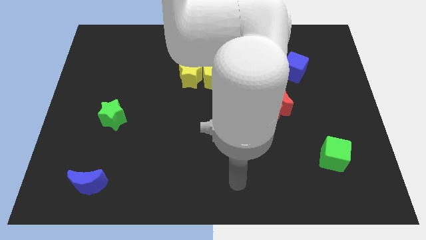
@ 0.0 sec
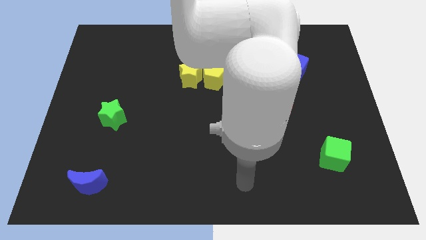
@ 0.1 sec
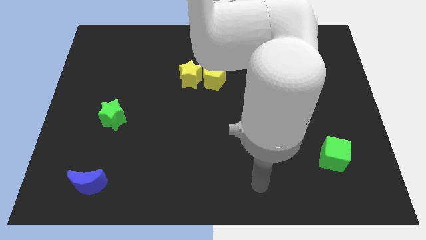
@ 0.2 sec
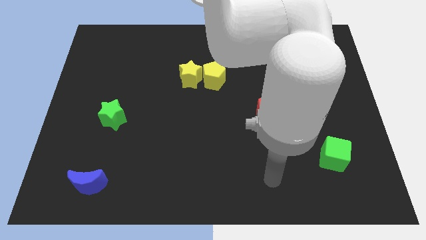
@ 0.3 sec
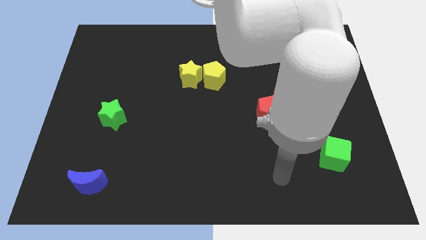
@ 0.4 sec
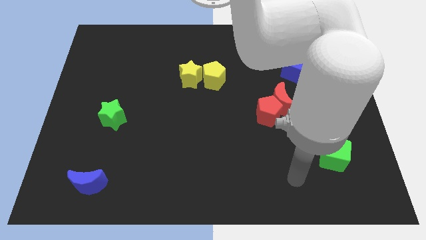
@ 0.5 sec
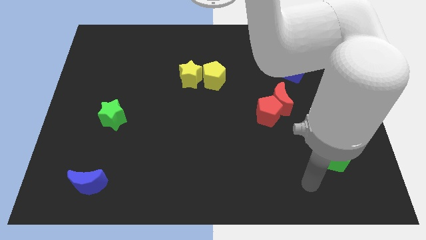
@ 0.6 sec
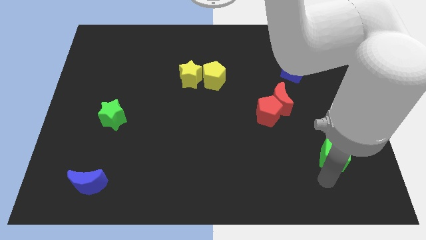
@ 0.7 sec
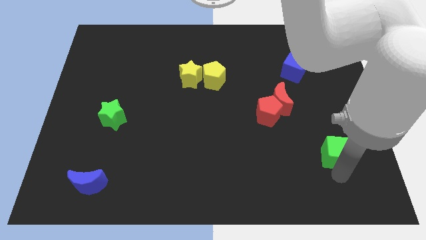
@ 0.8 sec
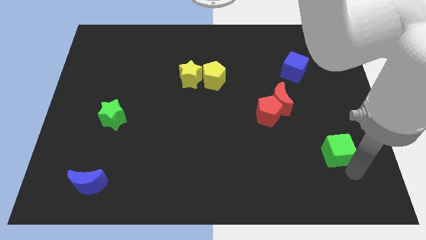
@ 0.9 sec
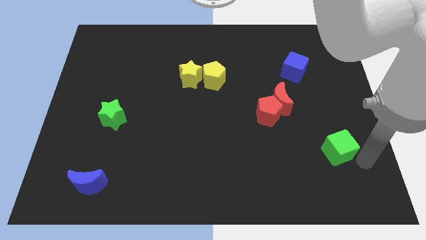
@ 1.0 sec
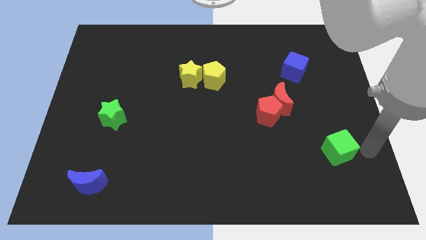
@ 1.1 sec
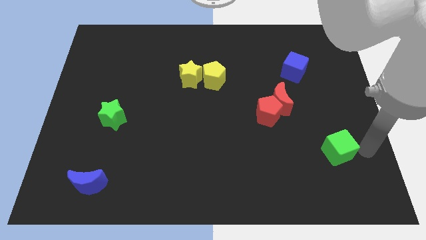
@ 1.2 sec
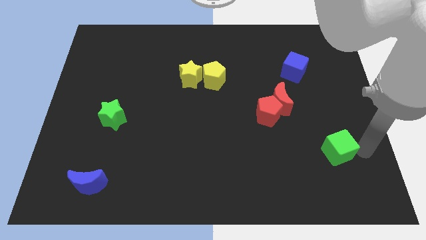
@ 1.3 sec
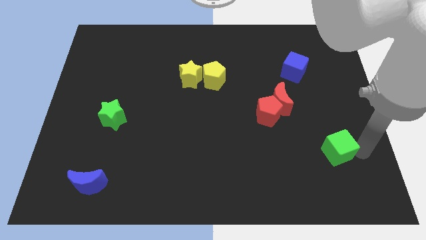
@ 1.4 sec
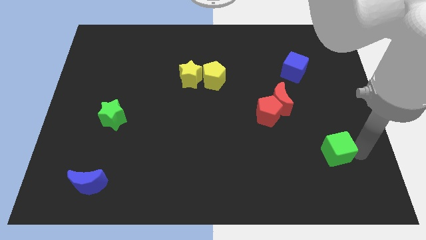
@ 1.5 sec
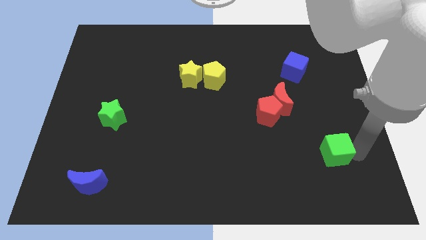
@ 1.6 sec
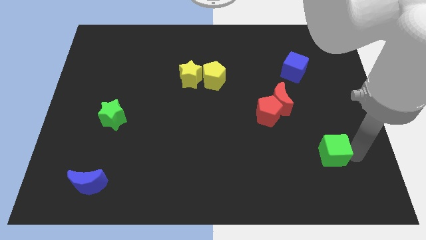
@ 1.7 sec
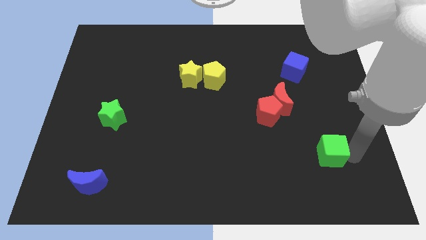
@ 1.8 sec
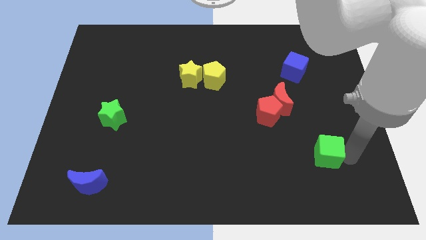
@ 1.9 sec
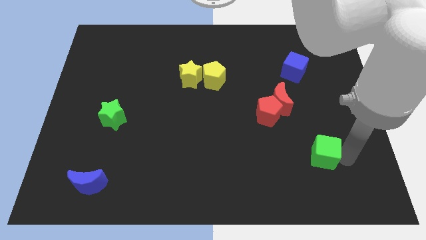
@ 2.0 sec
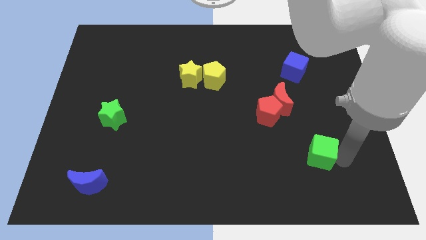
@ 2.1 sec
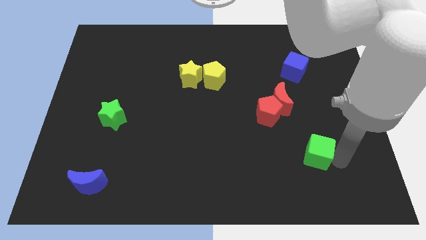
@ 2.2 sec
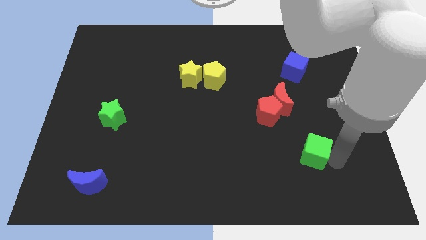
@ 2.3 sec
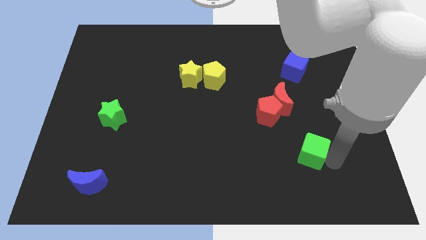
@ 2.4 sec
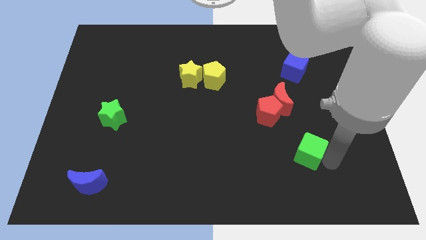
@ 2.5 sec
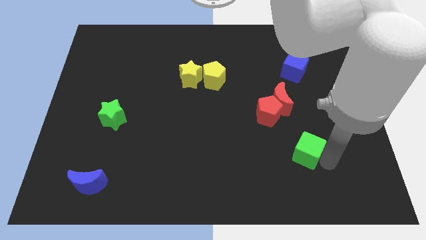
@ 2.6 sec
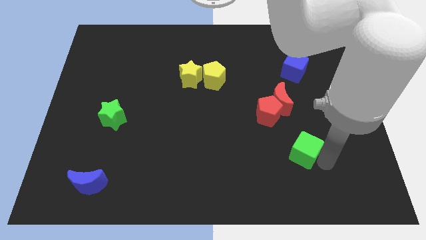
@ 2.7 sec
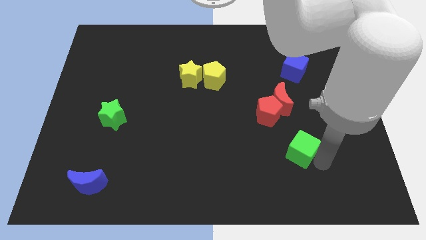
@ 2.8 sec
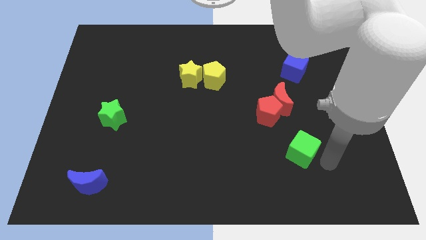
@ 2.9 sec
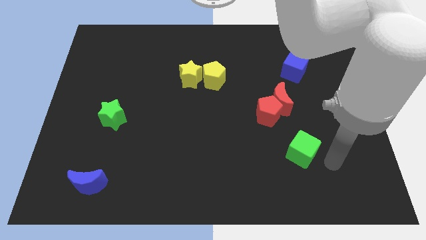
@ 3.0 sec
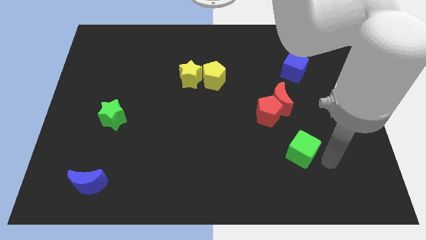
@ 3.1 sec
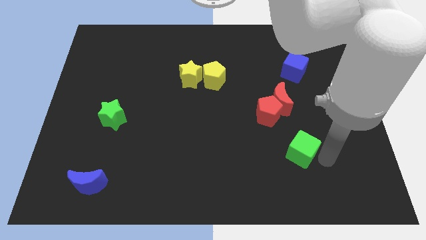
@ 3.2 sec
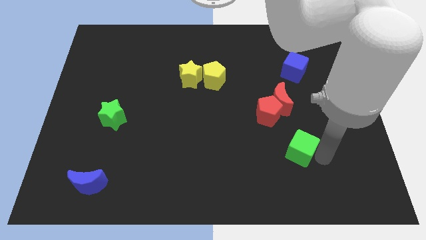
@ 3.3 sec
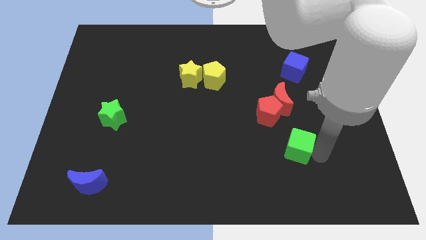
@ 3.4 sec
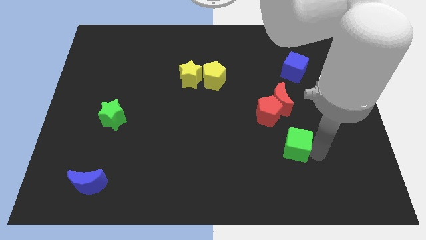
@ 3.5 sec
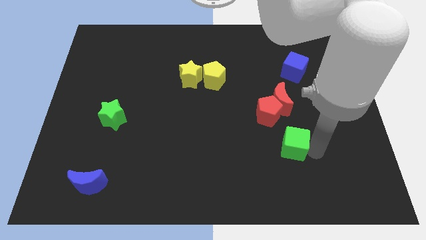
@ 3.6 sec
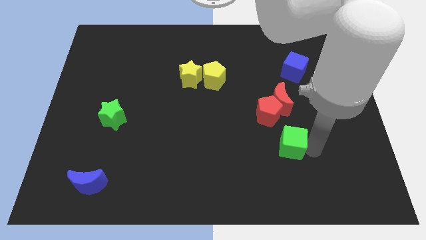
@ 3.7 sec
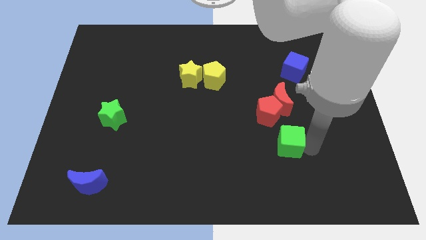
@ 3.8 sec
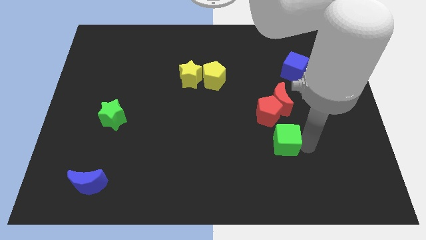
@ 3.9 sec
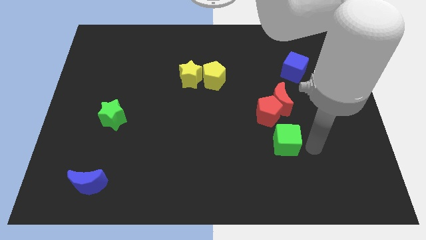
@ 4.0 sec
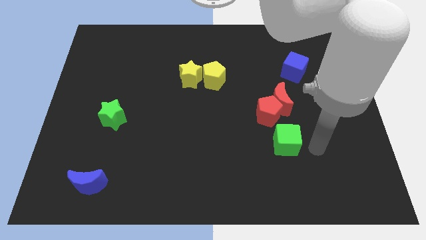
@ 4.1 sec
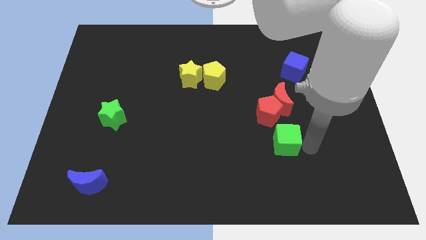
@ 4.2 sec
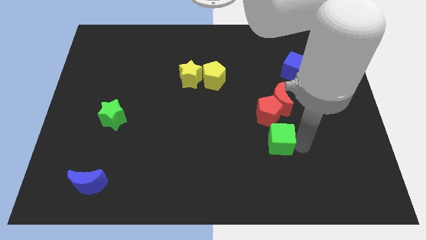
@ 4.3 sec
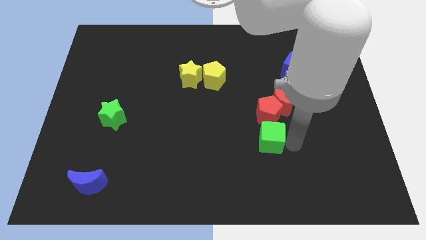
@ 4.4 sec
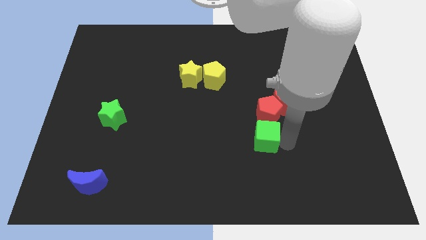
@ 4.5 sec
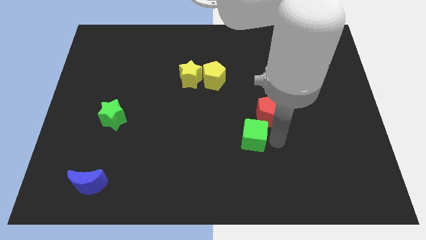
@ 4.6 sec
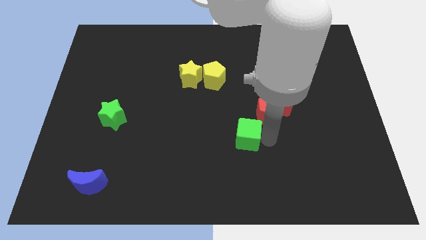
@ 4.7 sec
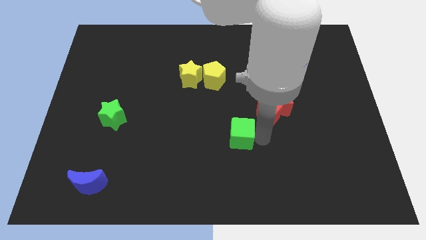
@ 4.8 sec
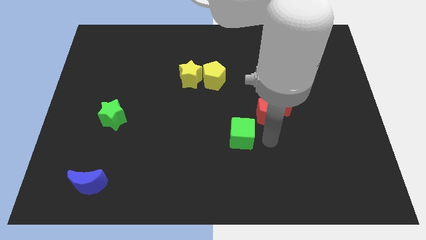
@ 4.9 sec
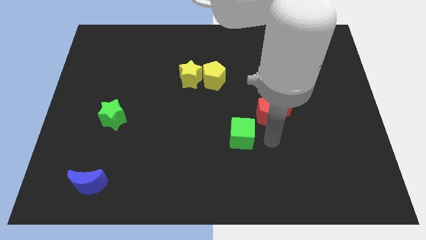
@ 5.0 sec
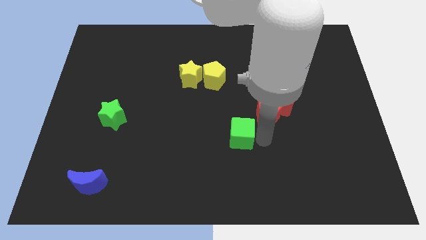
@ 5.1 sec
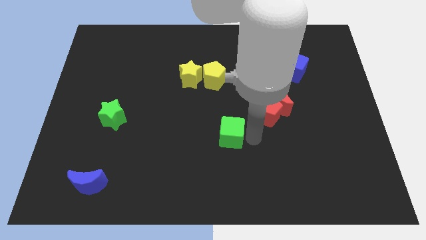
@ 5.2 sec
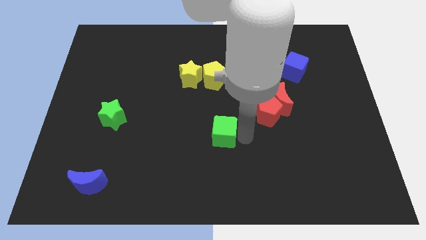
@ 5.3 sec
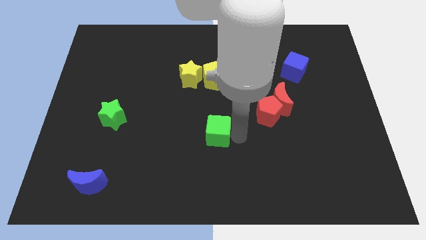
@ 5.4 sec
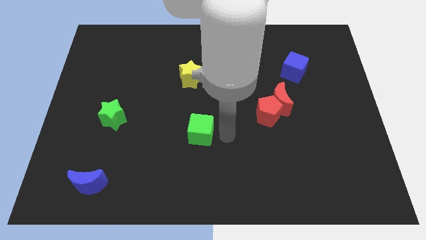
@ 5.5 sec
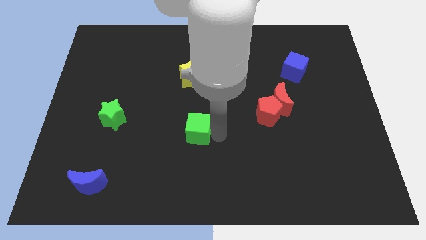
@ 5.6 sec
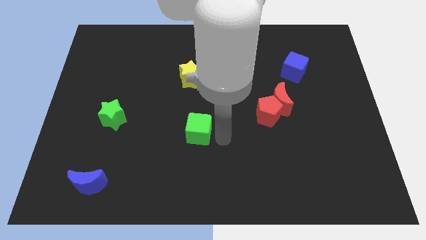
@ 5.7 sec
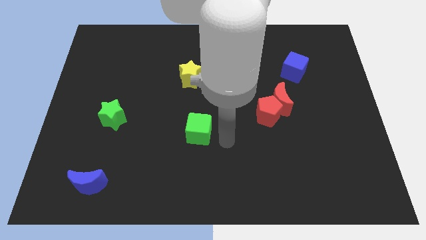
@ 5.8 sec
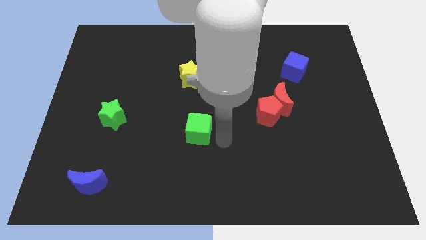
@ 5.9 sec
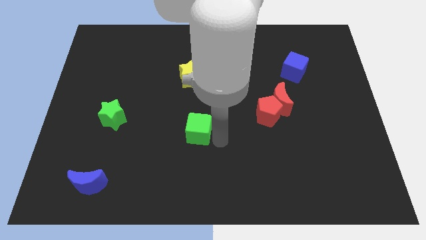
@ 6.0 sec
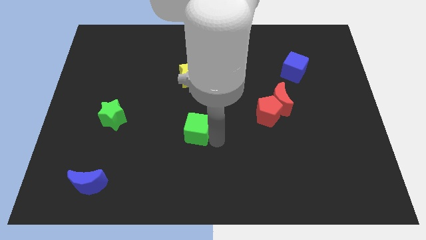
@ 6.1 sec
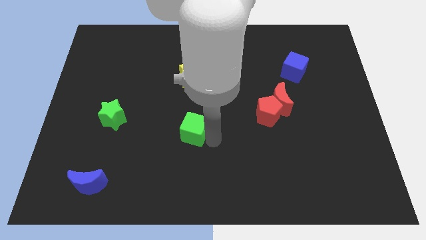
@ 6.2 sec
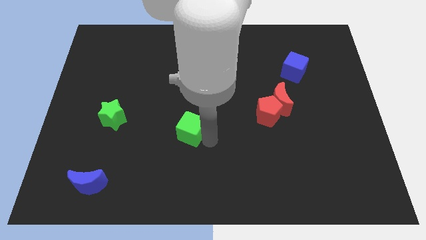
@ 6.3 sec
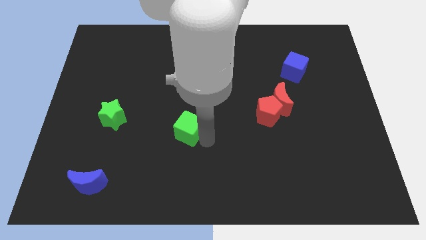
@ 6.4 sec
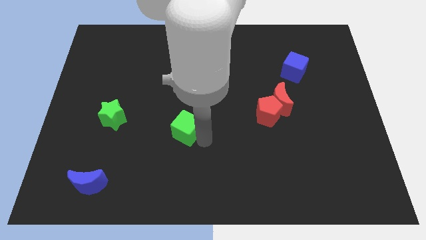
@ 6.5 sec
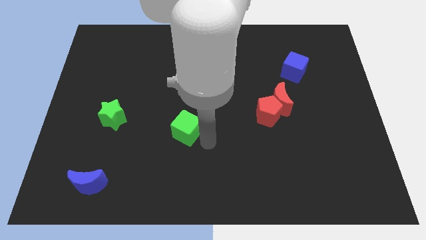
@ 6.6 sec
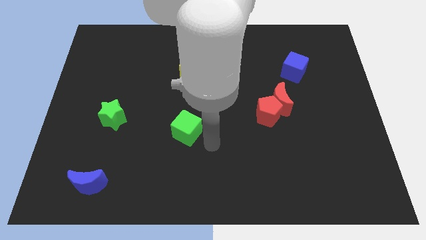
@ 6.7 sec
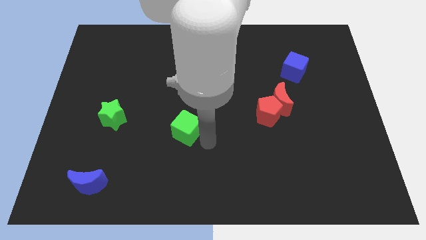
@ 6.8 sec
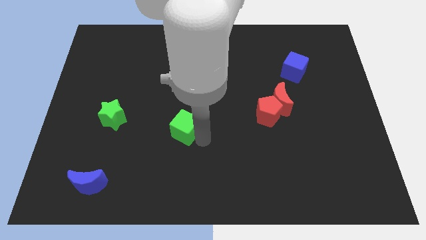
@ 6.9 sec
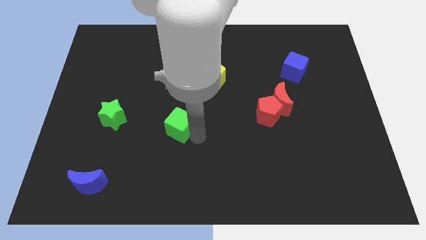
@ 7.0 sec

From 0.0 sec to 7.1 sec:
push the green cube right of the green star
